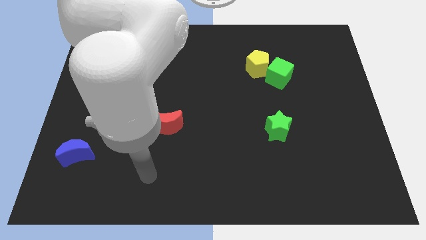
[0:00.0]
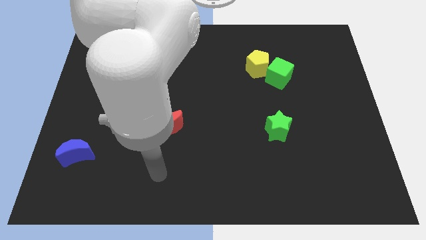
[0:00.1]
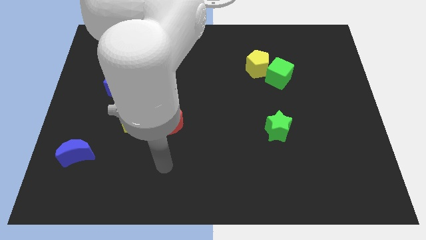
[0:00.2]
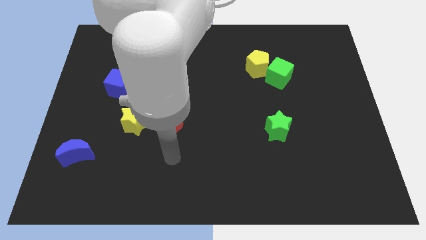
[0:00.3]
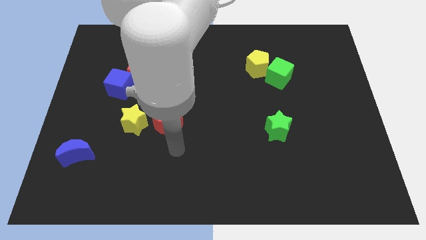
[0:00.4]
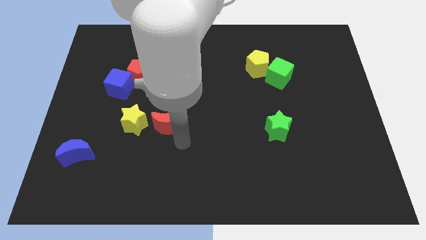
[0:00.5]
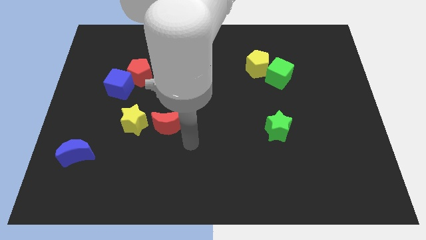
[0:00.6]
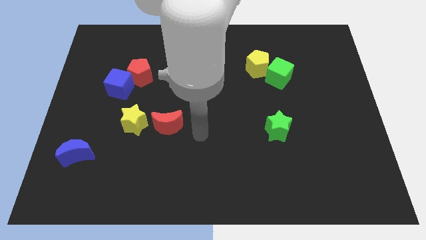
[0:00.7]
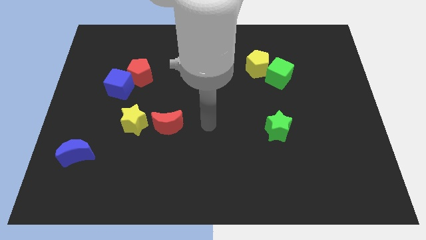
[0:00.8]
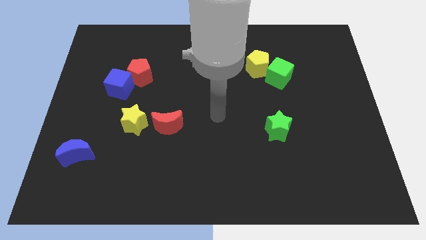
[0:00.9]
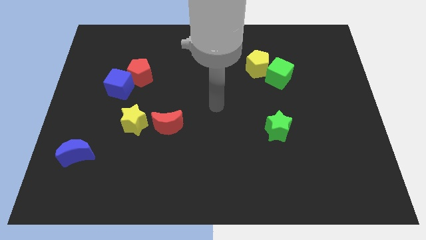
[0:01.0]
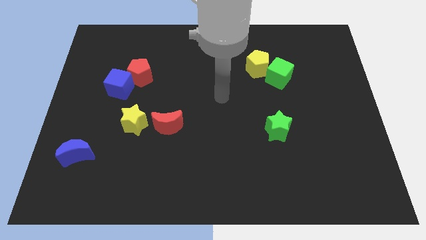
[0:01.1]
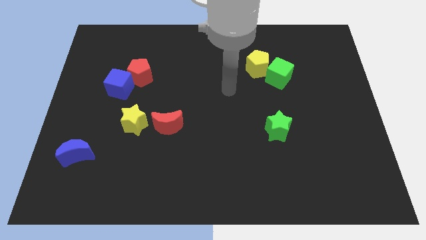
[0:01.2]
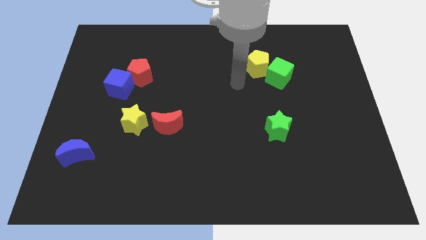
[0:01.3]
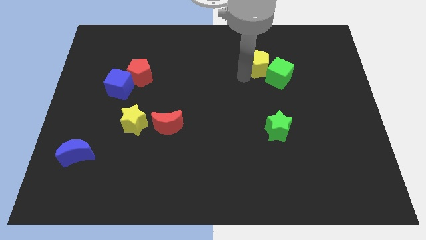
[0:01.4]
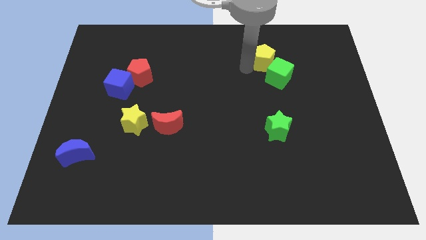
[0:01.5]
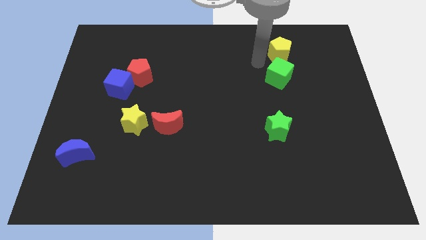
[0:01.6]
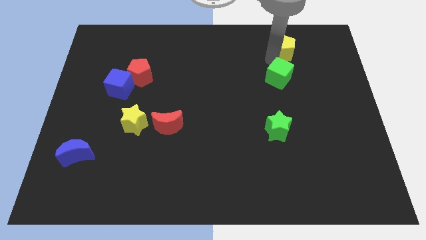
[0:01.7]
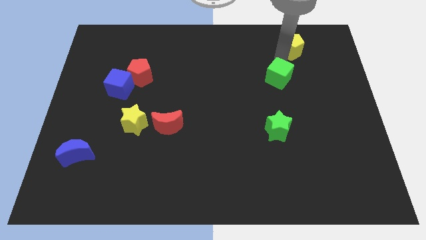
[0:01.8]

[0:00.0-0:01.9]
move the green cube away from the yellow pentagon

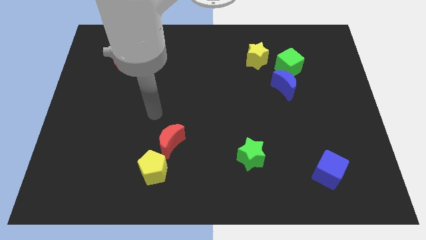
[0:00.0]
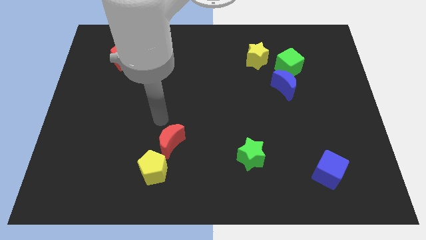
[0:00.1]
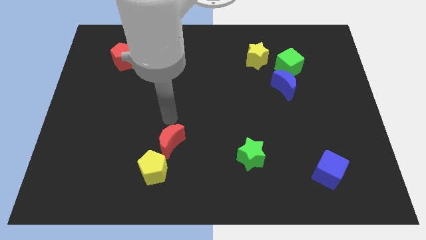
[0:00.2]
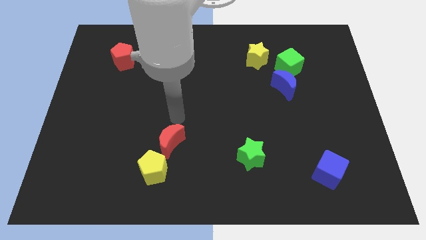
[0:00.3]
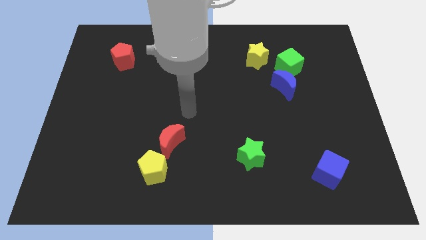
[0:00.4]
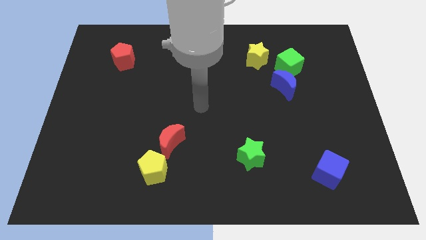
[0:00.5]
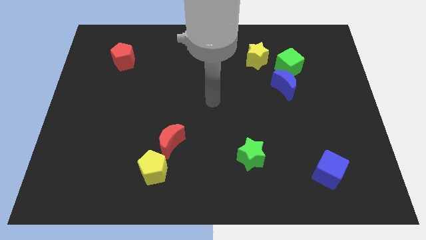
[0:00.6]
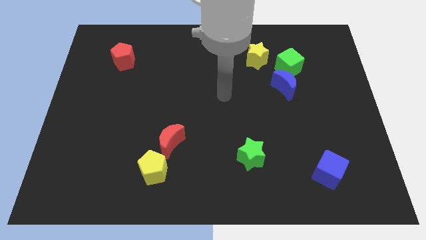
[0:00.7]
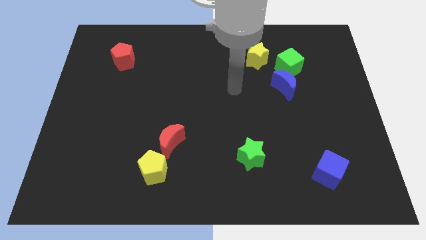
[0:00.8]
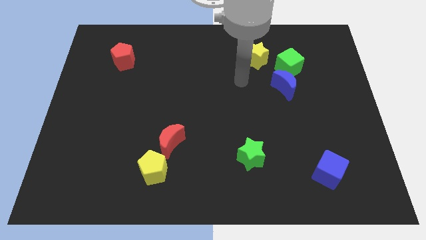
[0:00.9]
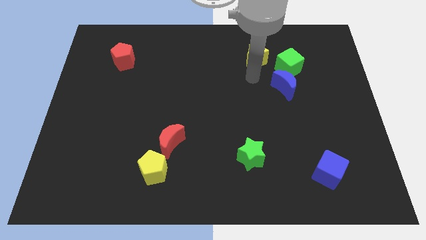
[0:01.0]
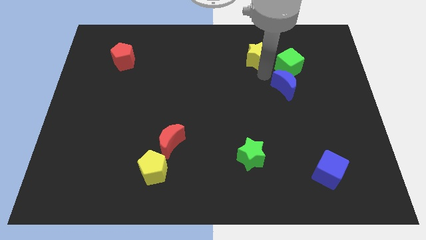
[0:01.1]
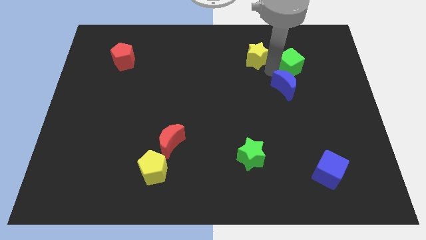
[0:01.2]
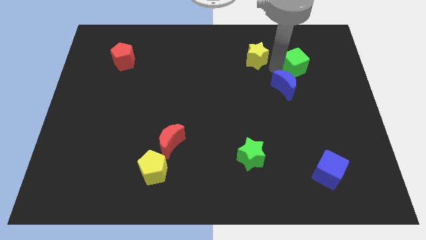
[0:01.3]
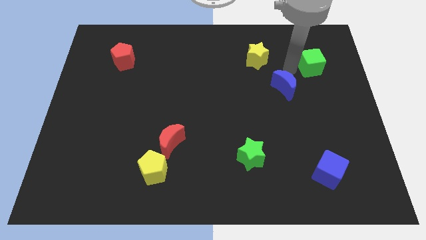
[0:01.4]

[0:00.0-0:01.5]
pull the blue moon apart from the green cube

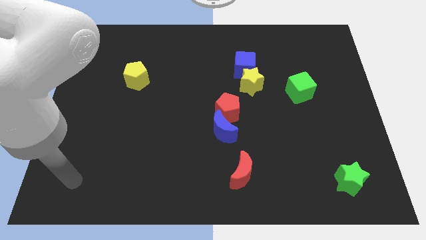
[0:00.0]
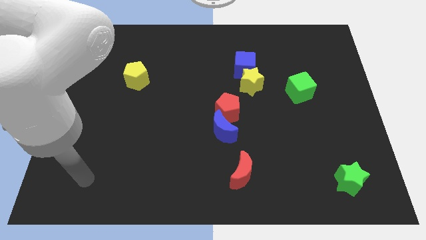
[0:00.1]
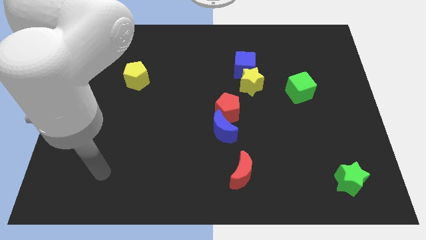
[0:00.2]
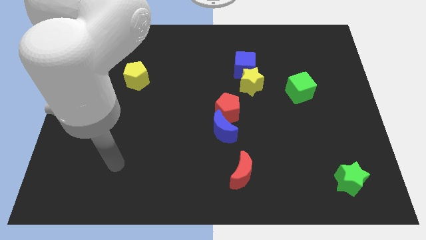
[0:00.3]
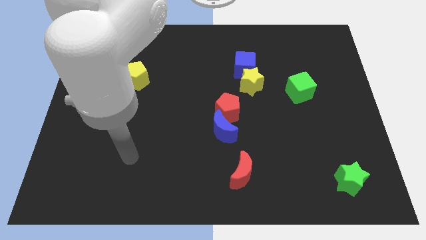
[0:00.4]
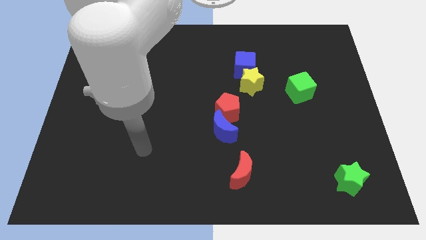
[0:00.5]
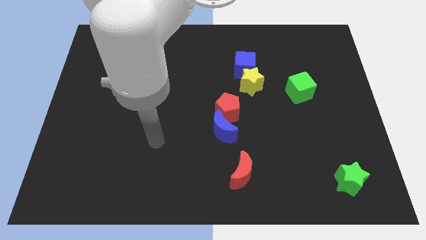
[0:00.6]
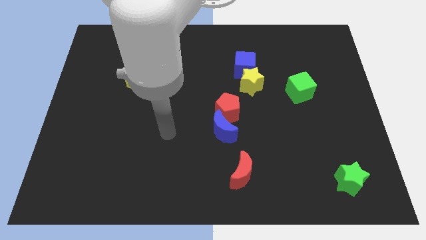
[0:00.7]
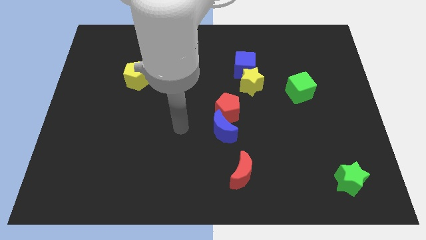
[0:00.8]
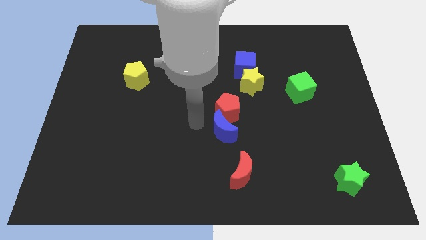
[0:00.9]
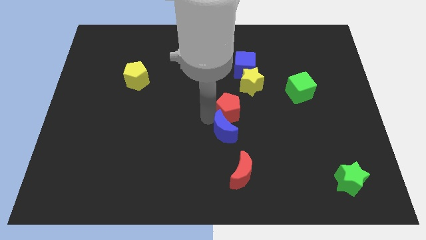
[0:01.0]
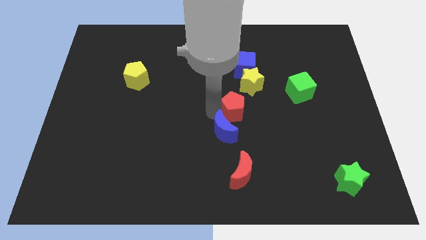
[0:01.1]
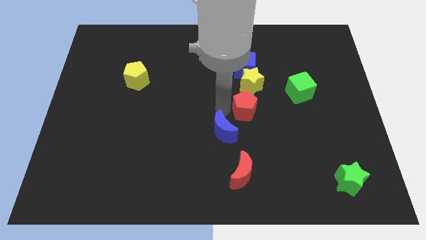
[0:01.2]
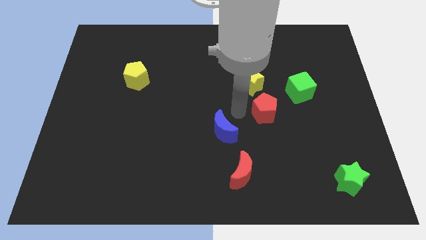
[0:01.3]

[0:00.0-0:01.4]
pull the blue moon apart from the red pentagon

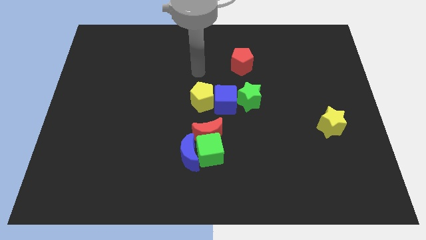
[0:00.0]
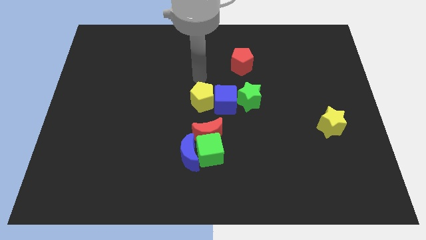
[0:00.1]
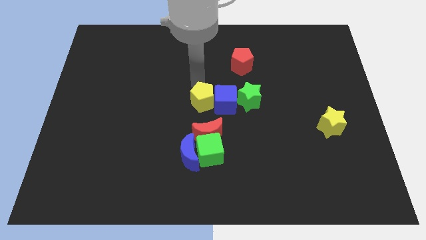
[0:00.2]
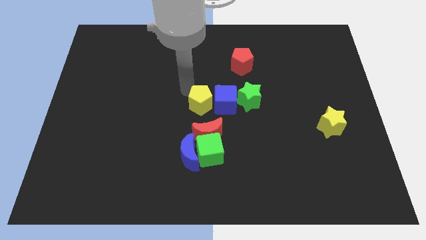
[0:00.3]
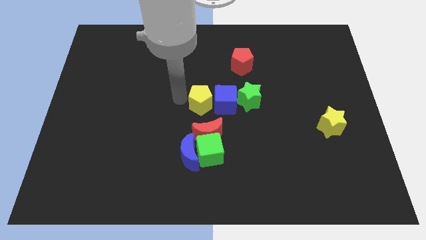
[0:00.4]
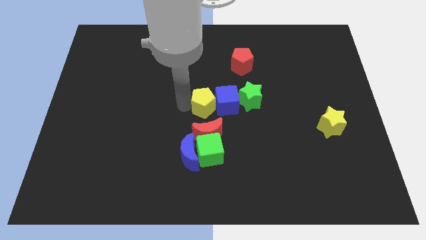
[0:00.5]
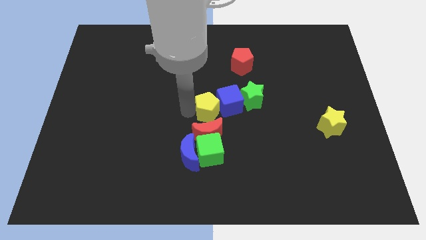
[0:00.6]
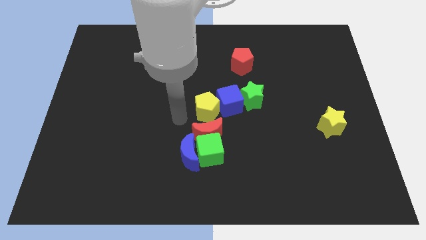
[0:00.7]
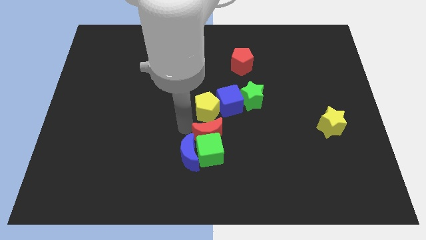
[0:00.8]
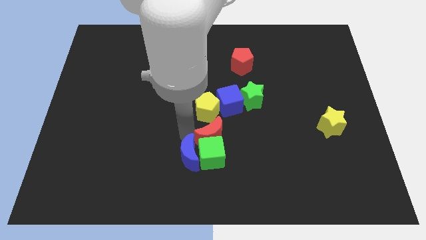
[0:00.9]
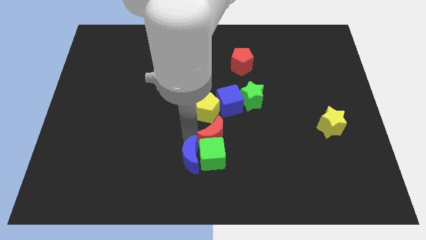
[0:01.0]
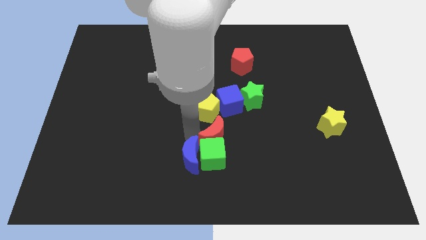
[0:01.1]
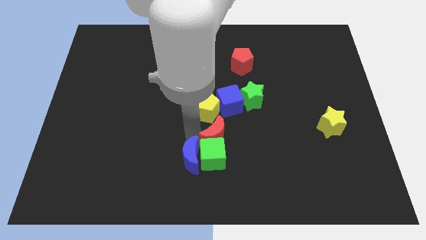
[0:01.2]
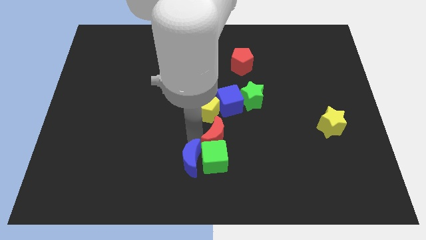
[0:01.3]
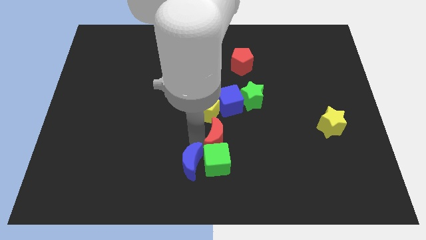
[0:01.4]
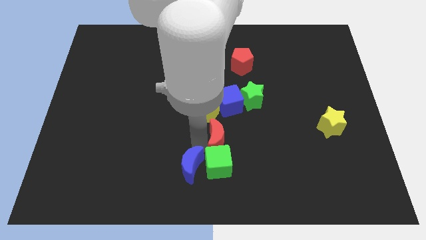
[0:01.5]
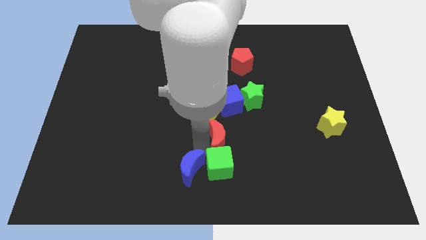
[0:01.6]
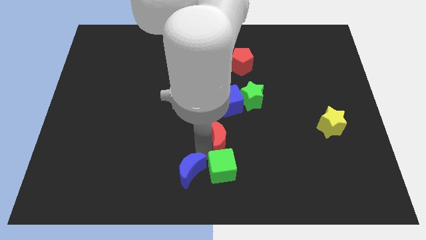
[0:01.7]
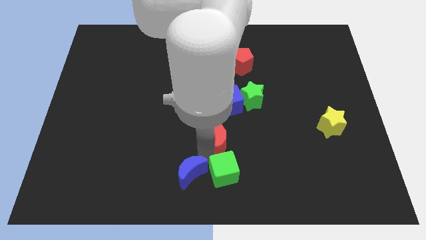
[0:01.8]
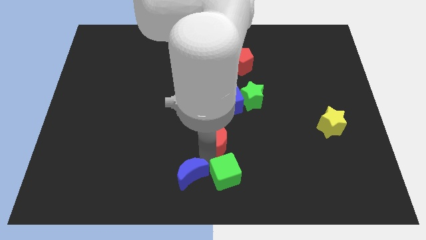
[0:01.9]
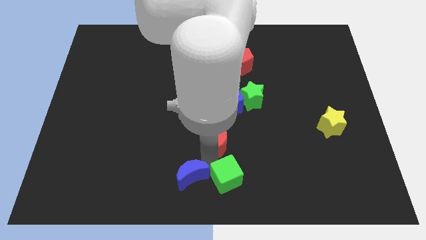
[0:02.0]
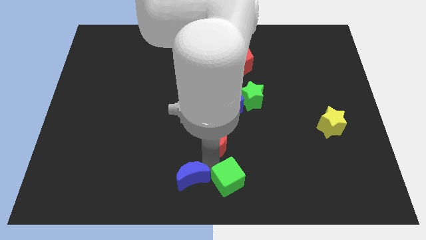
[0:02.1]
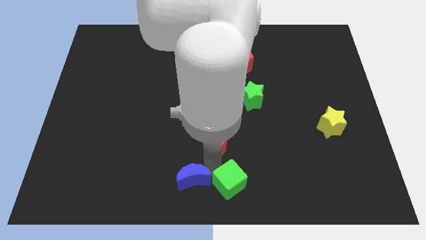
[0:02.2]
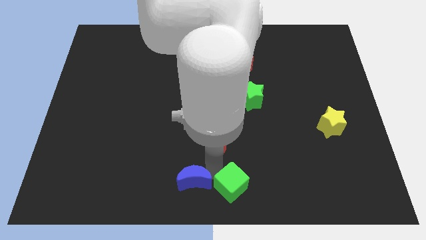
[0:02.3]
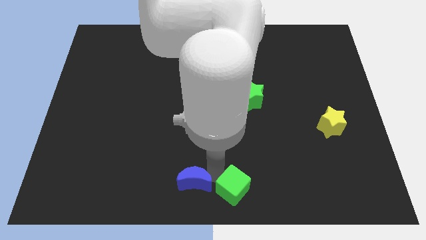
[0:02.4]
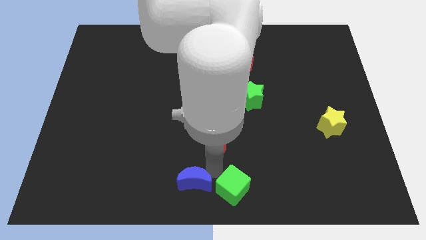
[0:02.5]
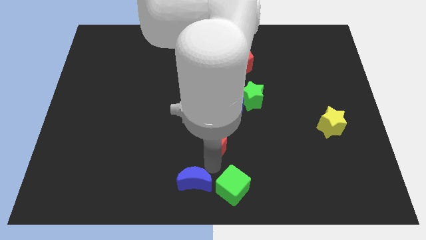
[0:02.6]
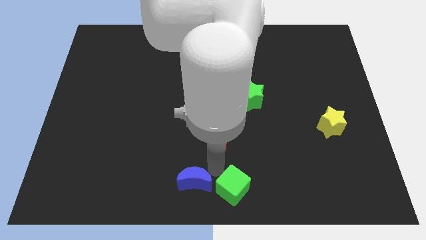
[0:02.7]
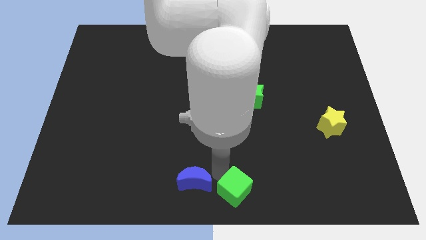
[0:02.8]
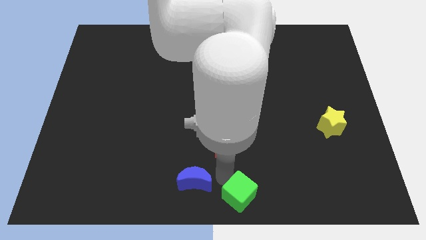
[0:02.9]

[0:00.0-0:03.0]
separate the green cube from the blue moon and red moon

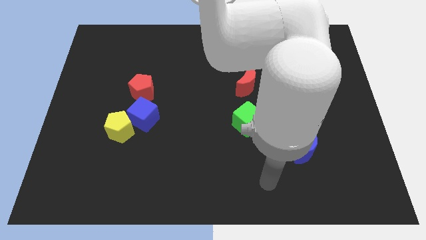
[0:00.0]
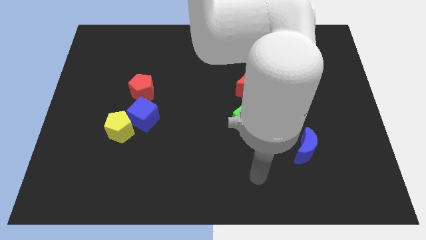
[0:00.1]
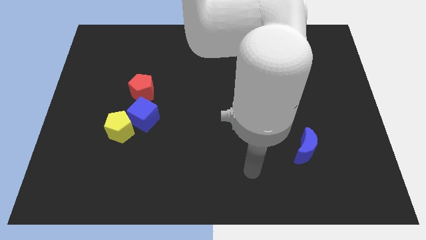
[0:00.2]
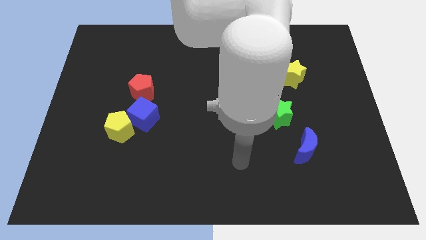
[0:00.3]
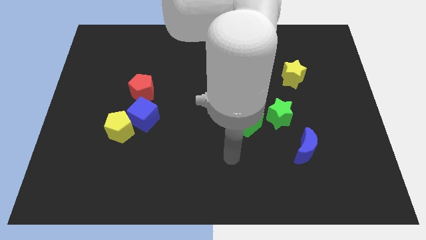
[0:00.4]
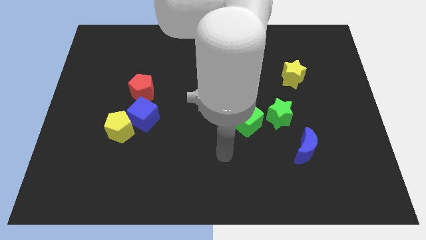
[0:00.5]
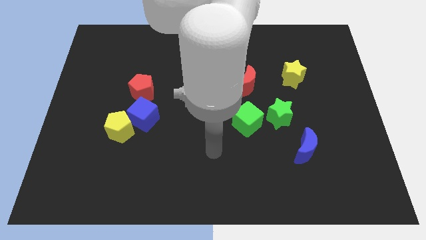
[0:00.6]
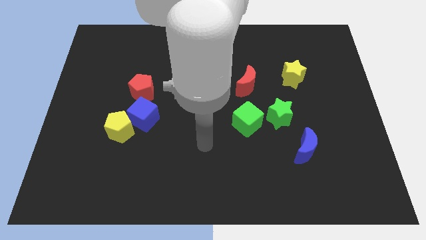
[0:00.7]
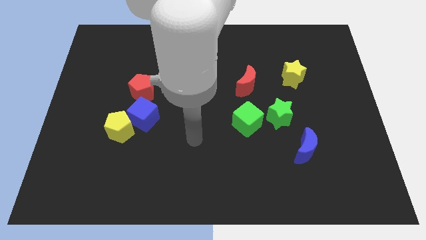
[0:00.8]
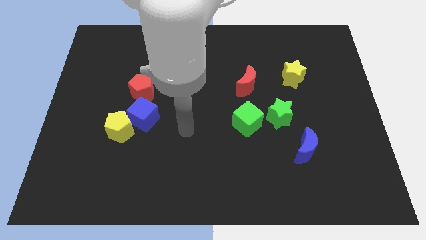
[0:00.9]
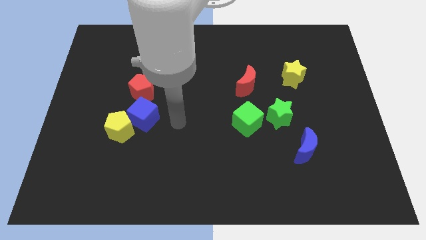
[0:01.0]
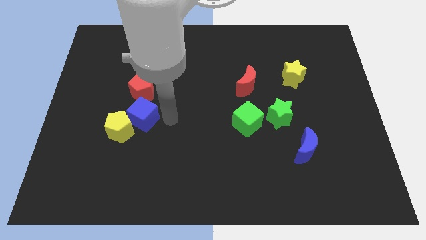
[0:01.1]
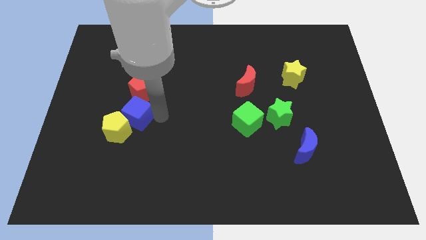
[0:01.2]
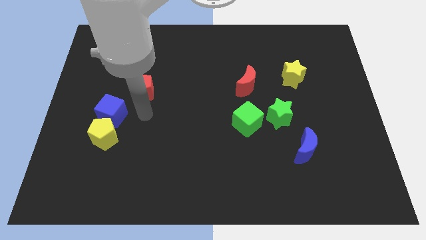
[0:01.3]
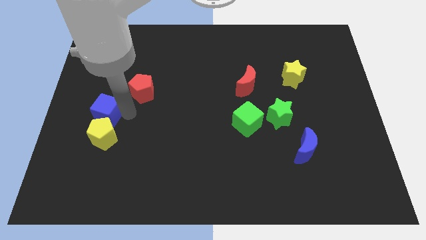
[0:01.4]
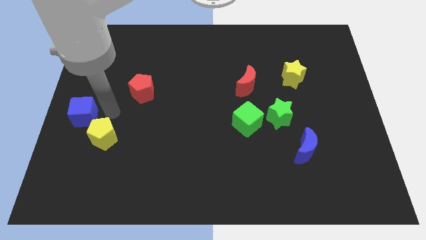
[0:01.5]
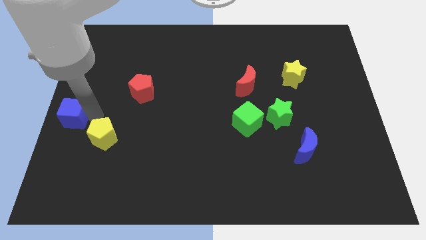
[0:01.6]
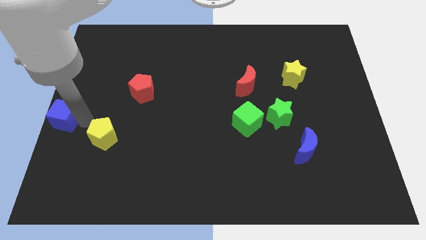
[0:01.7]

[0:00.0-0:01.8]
move the yellow pentagon away from the blue cube
